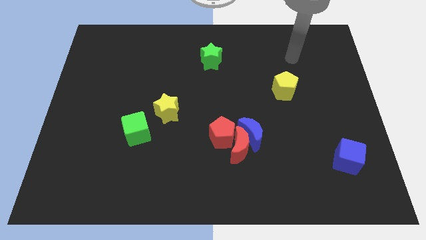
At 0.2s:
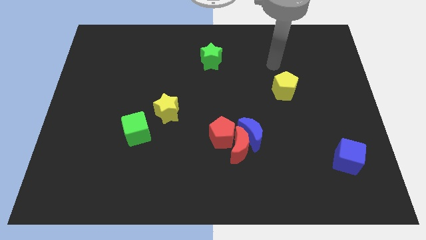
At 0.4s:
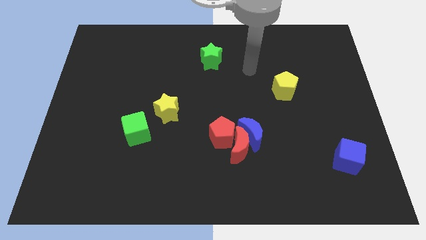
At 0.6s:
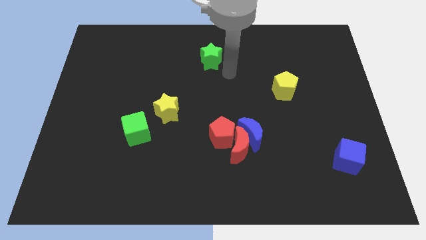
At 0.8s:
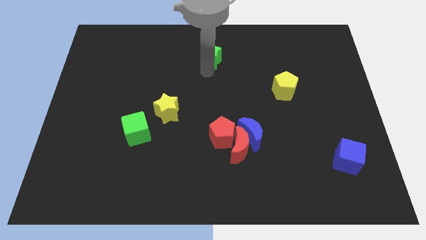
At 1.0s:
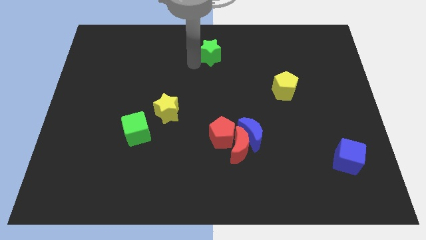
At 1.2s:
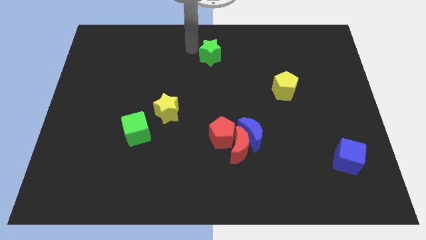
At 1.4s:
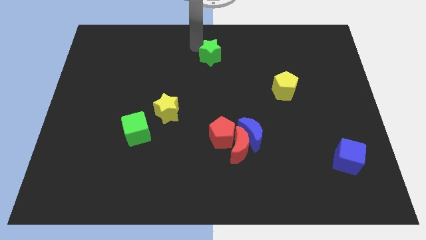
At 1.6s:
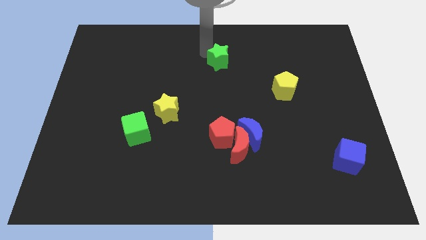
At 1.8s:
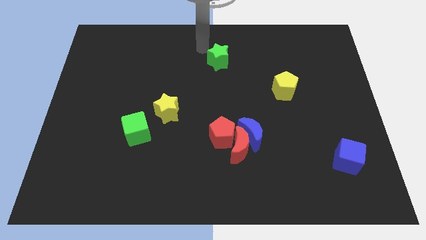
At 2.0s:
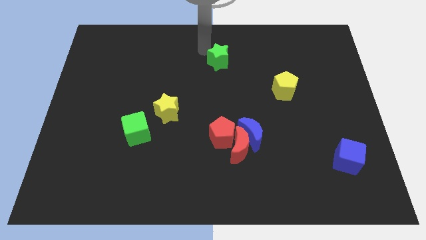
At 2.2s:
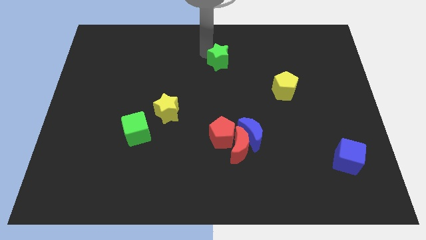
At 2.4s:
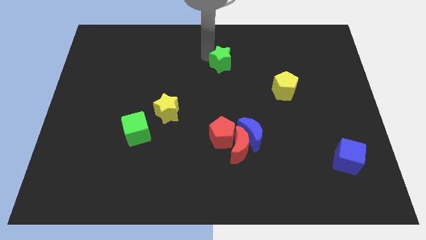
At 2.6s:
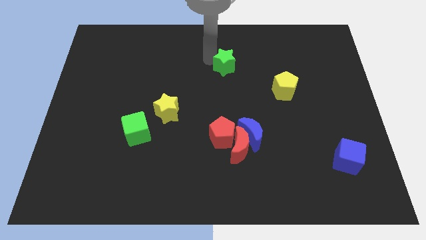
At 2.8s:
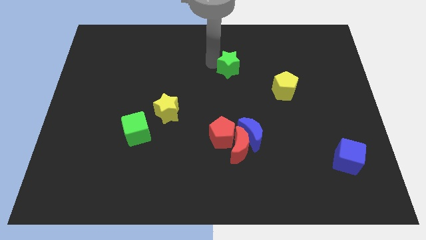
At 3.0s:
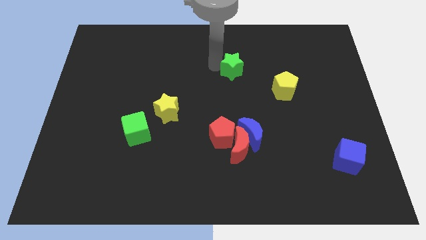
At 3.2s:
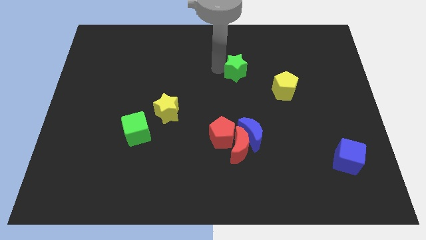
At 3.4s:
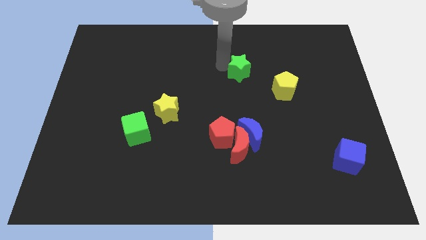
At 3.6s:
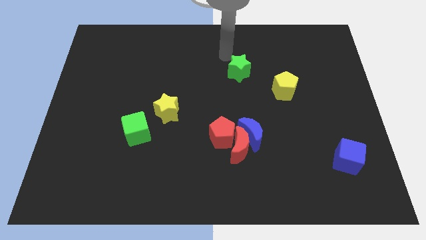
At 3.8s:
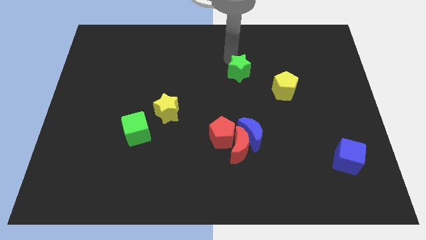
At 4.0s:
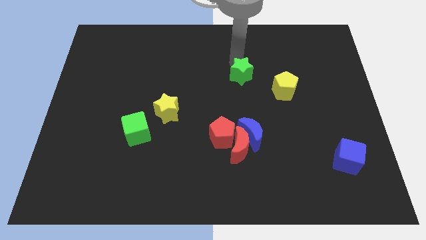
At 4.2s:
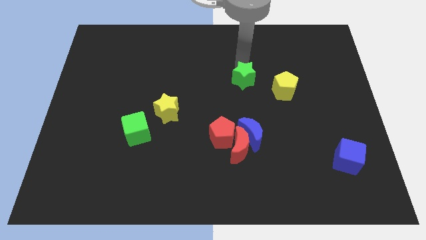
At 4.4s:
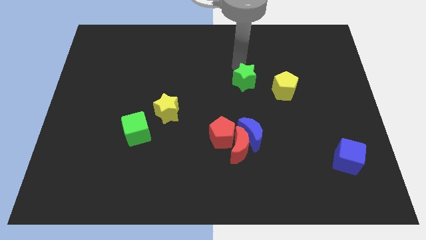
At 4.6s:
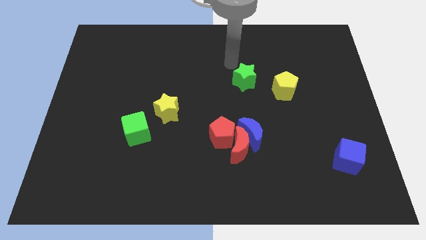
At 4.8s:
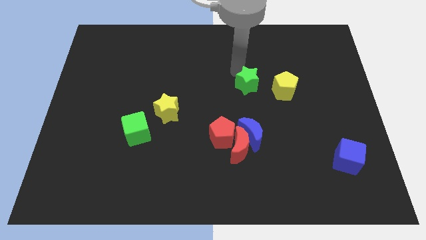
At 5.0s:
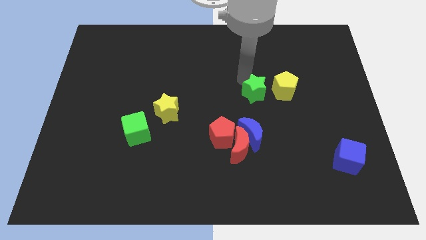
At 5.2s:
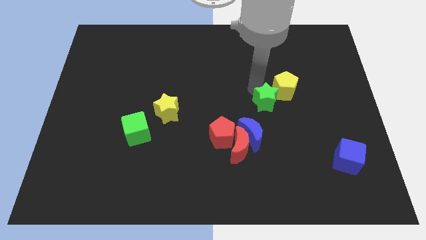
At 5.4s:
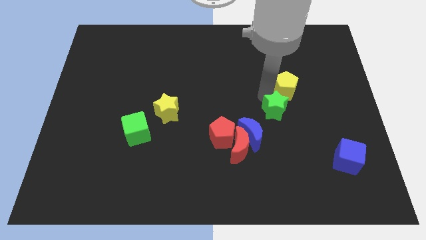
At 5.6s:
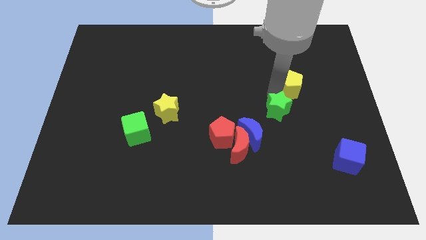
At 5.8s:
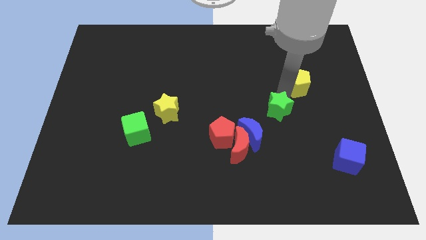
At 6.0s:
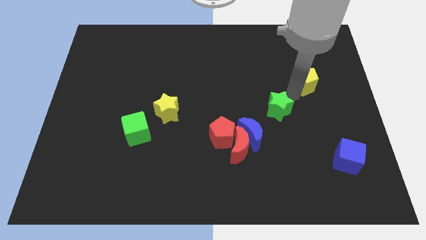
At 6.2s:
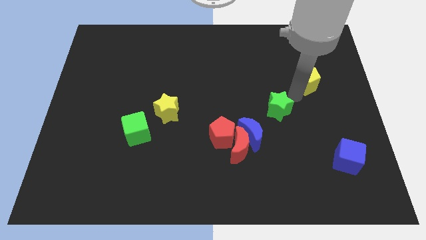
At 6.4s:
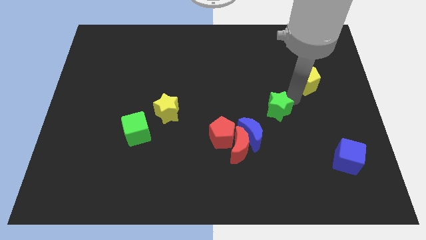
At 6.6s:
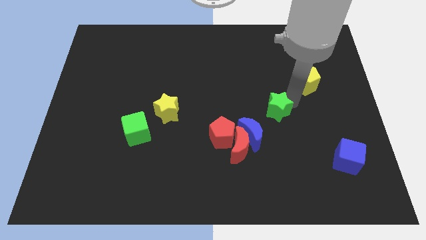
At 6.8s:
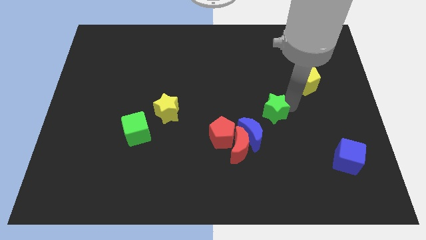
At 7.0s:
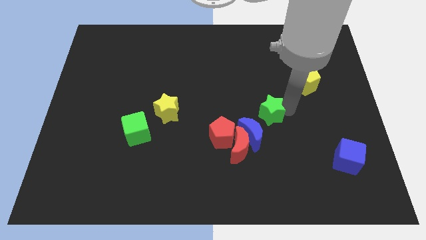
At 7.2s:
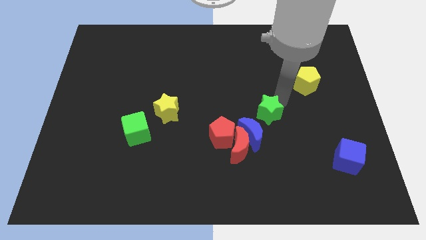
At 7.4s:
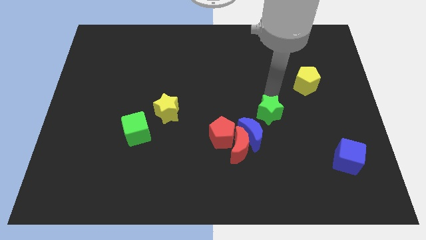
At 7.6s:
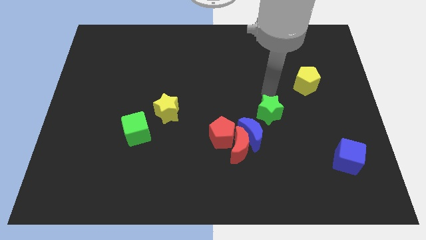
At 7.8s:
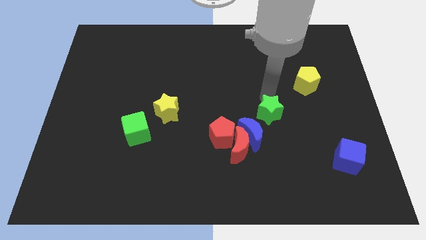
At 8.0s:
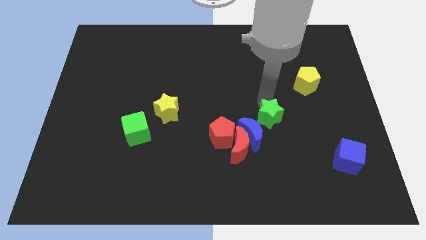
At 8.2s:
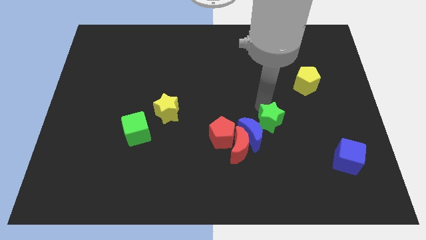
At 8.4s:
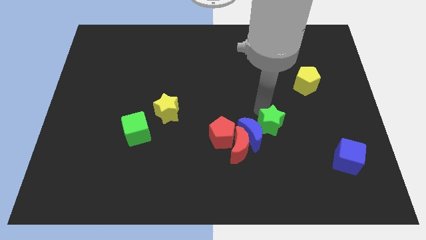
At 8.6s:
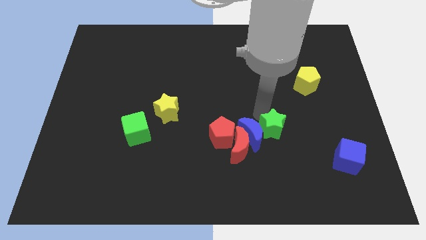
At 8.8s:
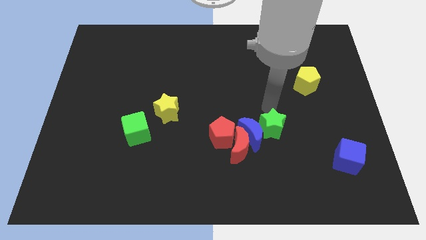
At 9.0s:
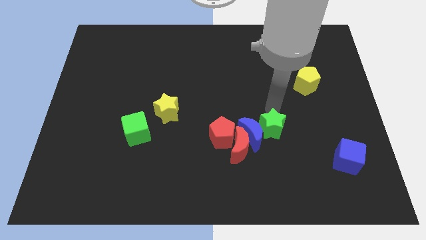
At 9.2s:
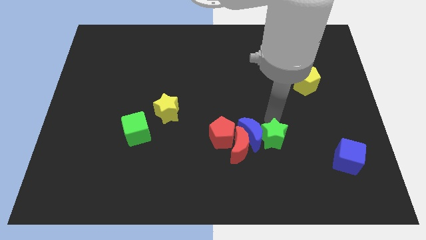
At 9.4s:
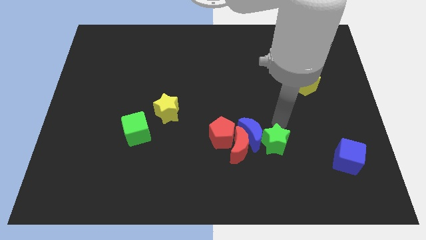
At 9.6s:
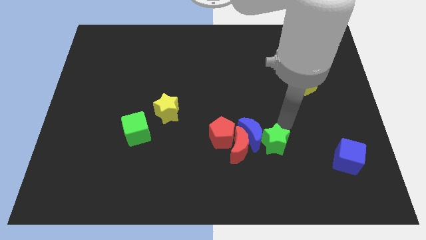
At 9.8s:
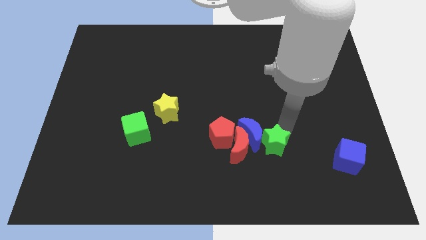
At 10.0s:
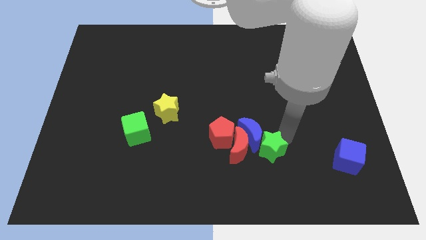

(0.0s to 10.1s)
move the green star below the blue moon

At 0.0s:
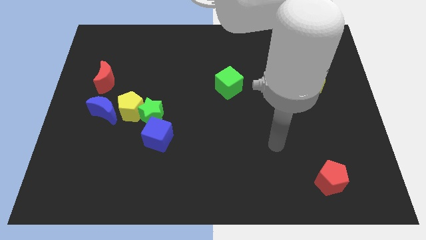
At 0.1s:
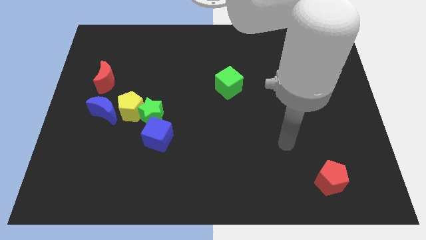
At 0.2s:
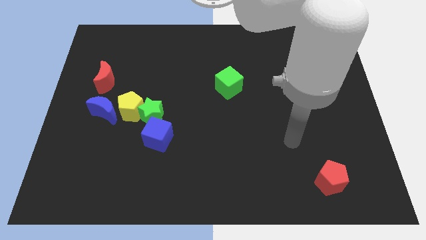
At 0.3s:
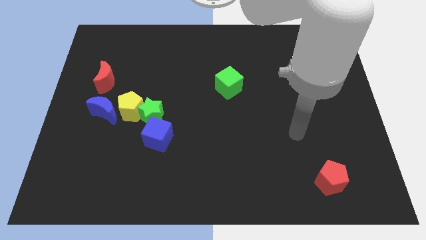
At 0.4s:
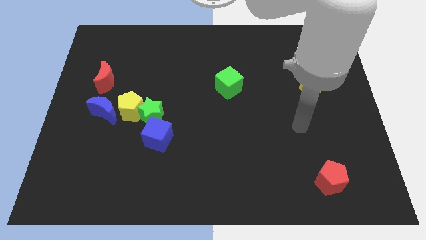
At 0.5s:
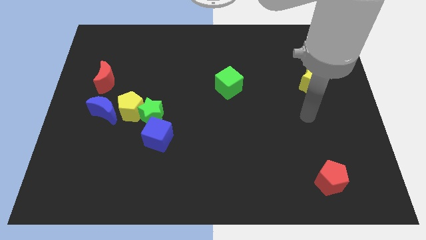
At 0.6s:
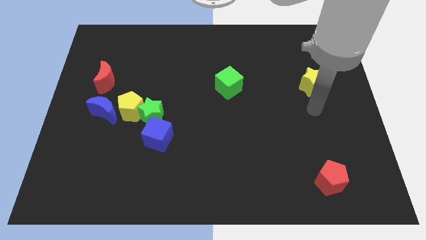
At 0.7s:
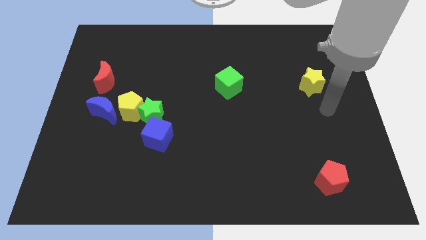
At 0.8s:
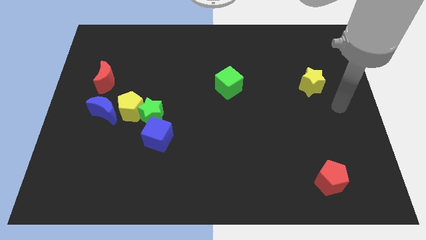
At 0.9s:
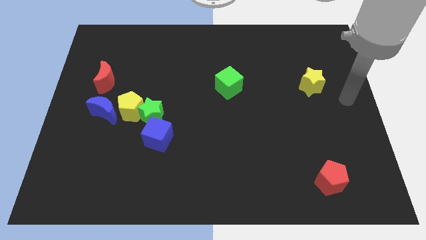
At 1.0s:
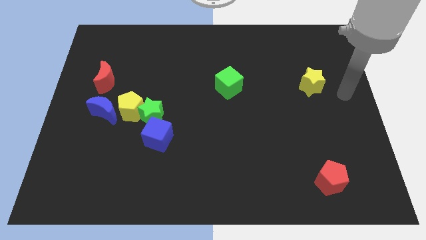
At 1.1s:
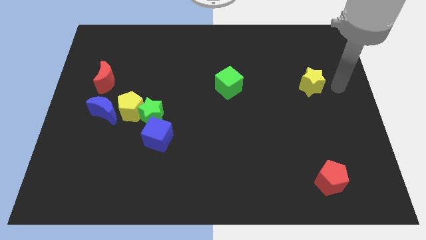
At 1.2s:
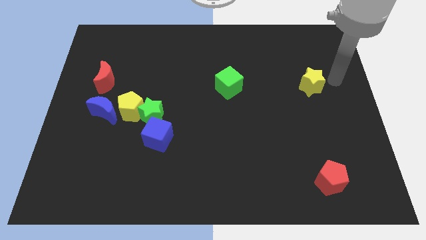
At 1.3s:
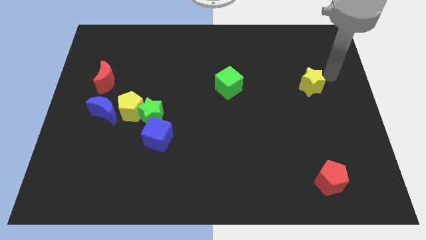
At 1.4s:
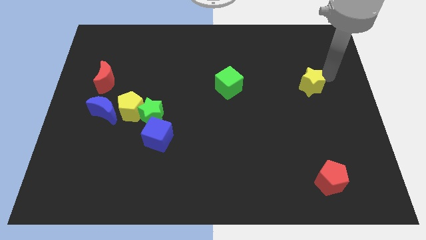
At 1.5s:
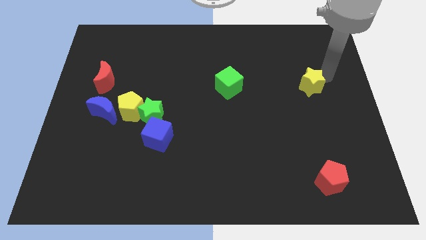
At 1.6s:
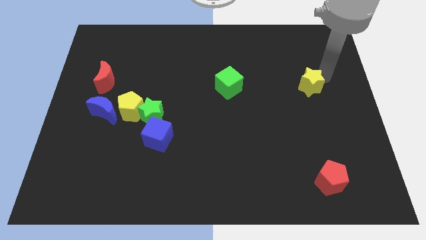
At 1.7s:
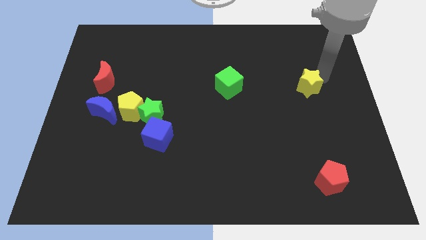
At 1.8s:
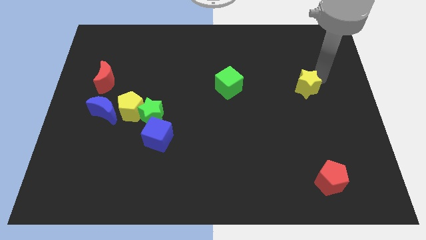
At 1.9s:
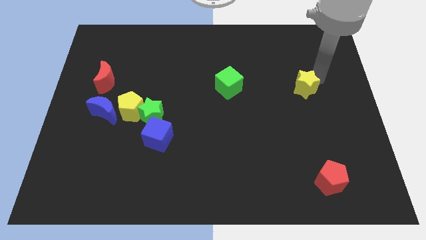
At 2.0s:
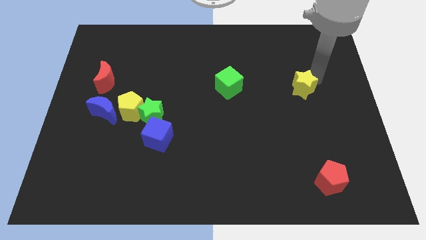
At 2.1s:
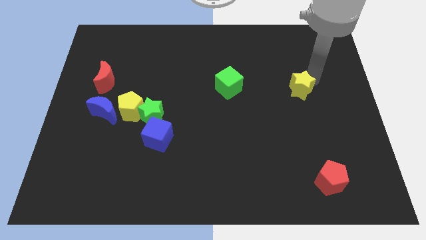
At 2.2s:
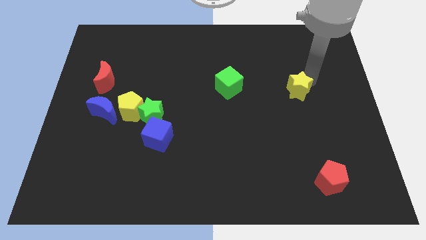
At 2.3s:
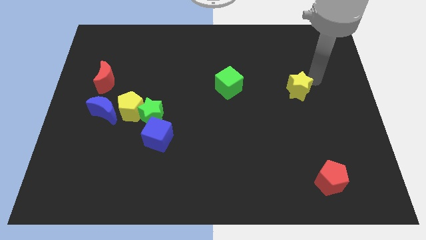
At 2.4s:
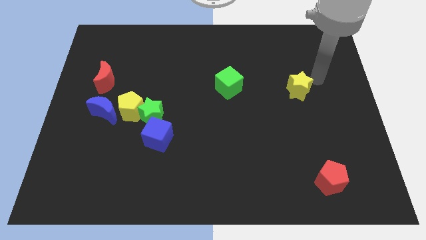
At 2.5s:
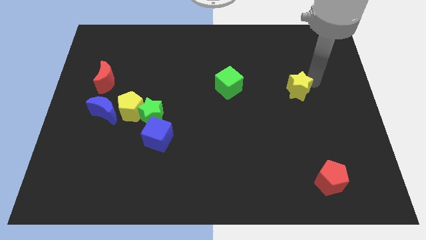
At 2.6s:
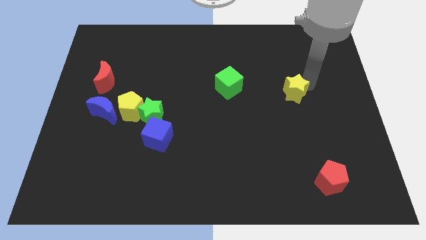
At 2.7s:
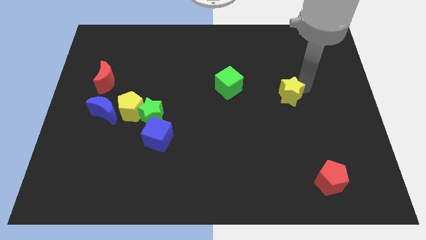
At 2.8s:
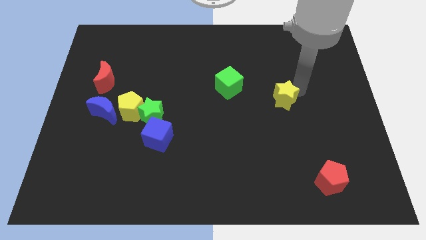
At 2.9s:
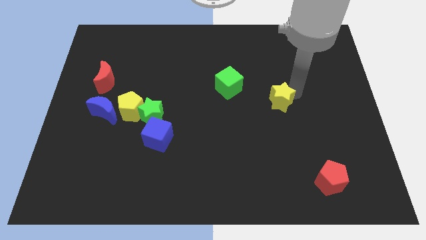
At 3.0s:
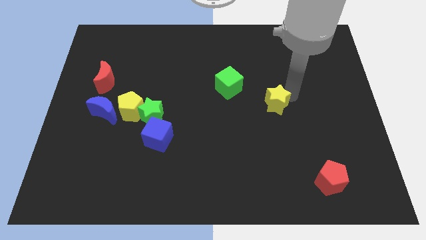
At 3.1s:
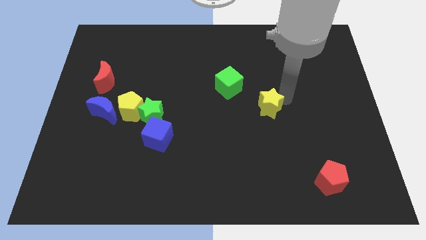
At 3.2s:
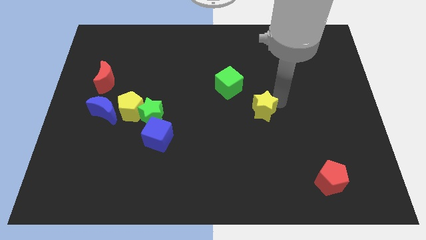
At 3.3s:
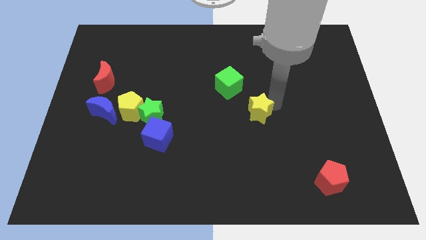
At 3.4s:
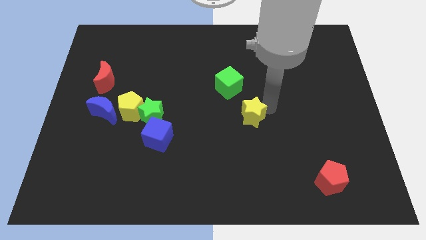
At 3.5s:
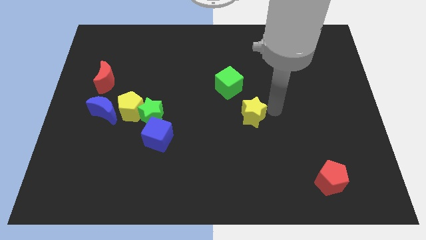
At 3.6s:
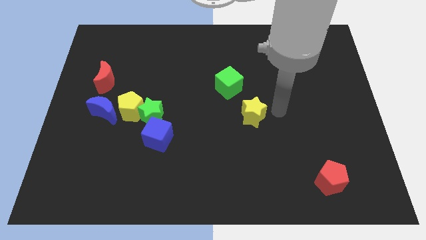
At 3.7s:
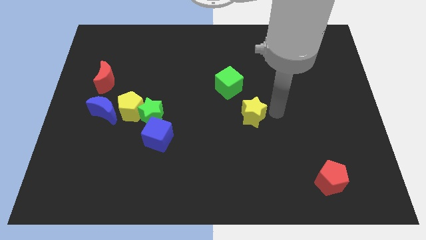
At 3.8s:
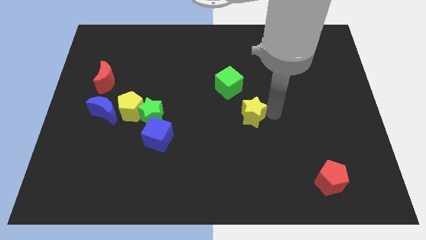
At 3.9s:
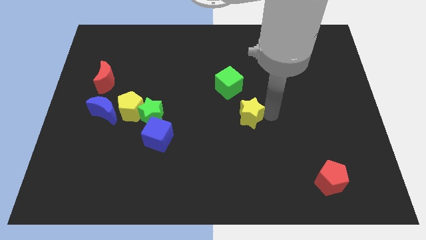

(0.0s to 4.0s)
push the yellow star below the green cube
